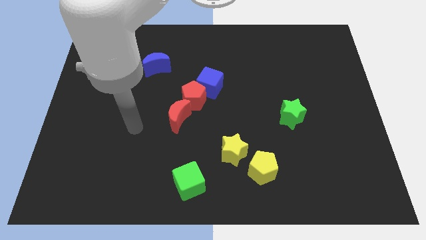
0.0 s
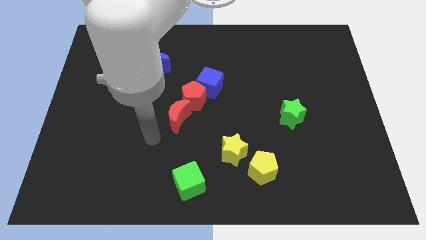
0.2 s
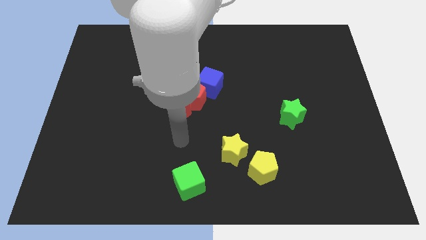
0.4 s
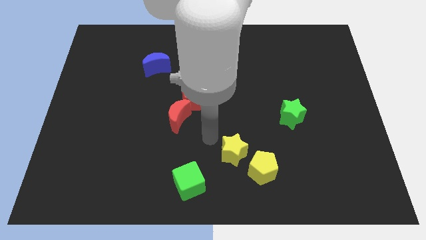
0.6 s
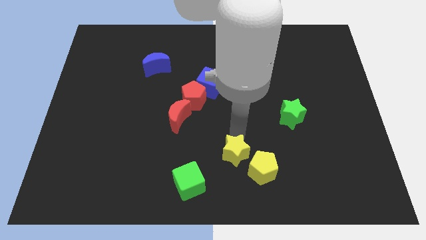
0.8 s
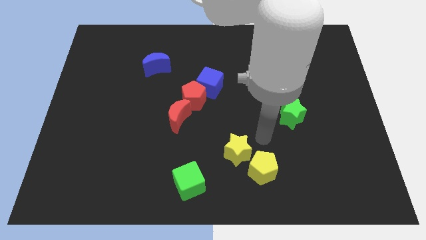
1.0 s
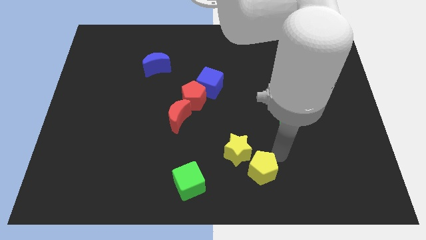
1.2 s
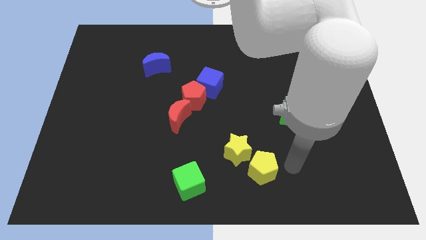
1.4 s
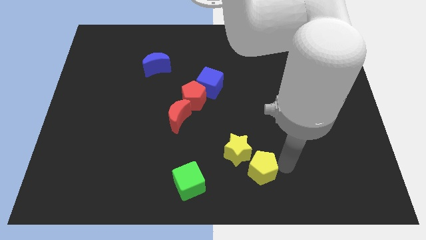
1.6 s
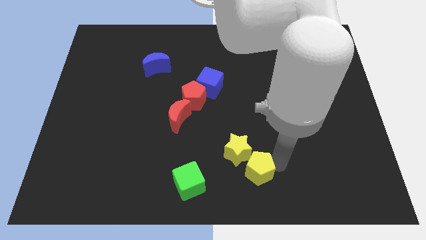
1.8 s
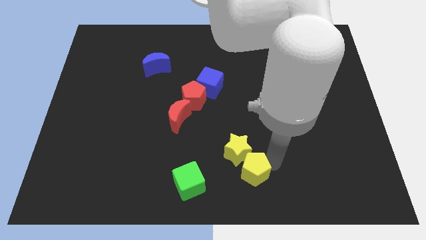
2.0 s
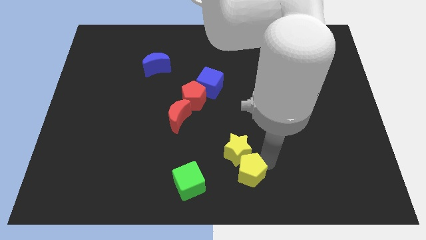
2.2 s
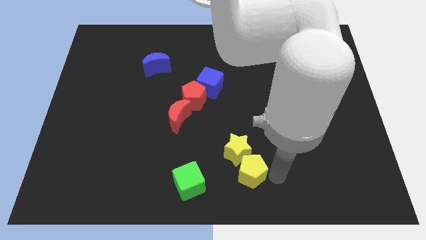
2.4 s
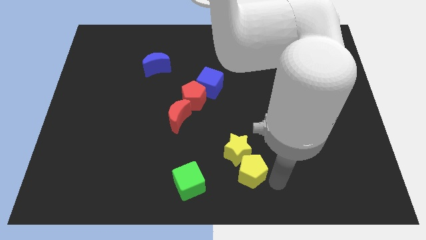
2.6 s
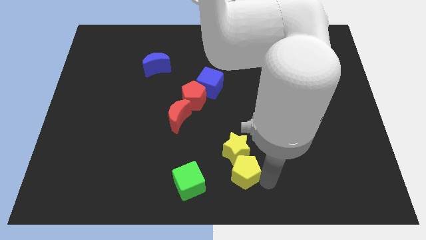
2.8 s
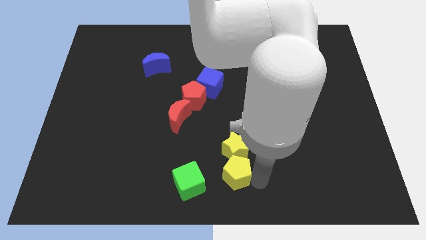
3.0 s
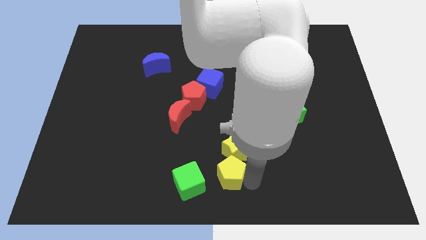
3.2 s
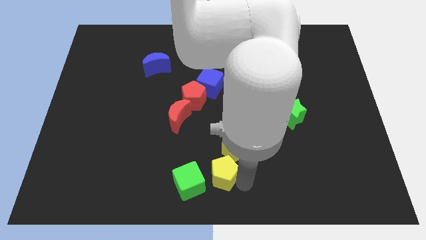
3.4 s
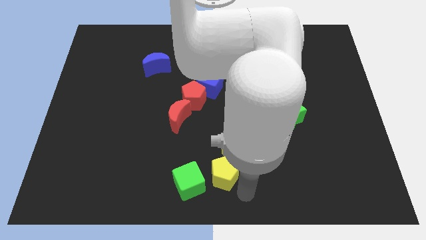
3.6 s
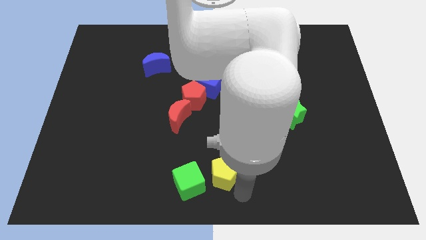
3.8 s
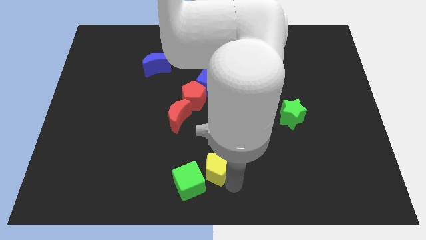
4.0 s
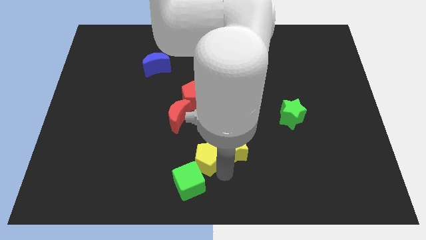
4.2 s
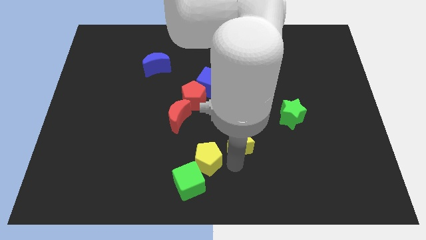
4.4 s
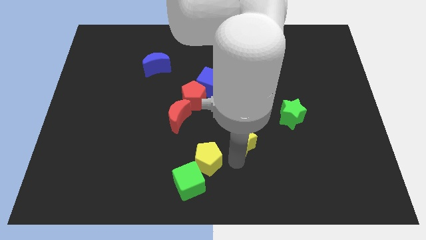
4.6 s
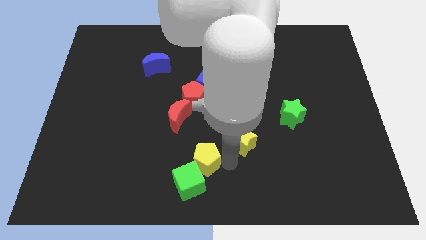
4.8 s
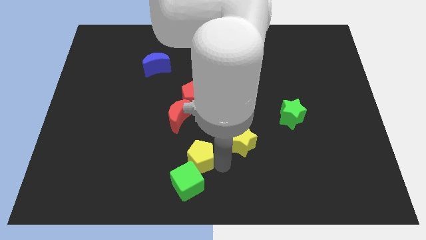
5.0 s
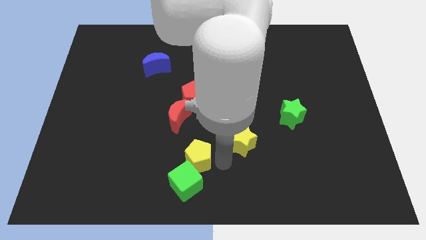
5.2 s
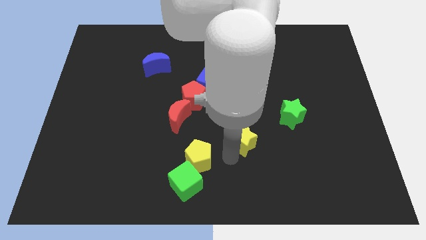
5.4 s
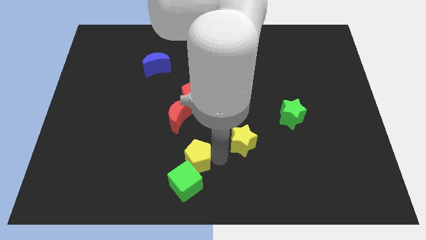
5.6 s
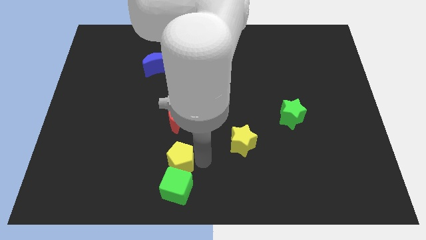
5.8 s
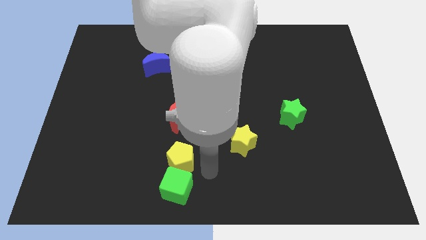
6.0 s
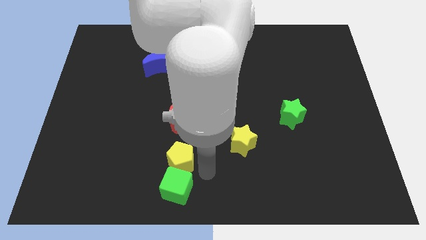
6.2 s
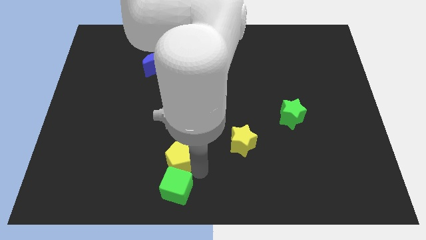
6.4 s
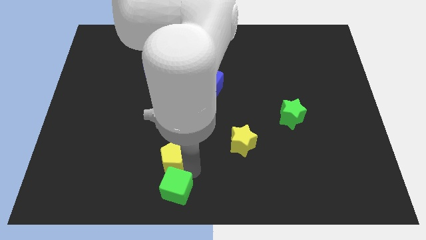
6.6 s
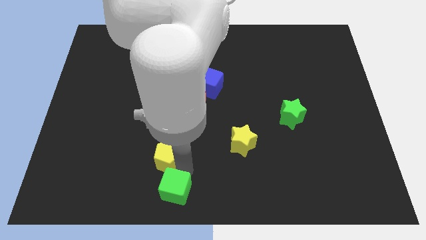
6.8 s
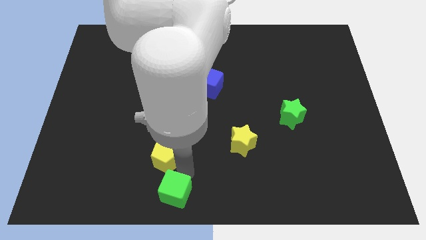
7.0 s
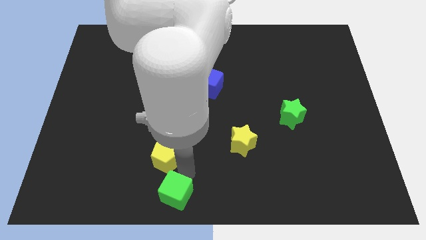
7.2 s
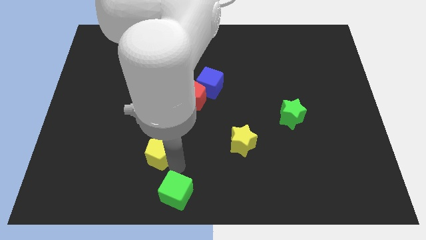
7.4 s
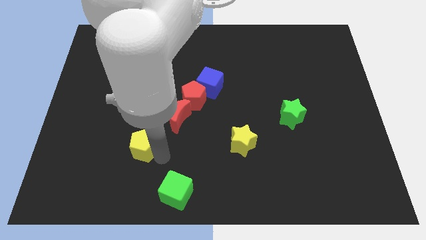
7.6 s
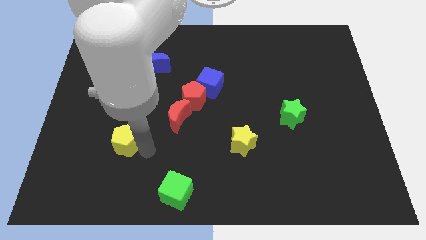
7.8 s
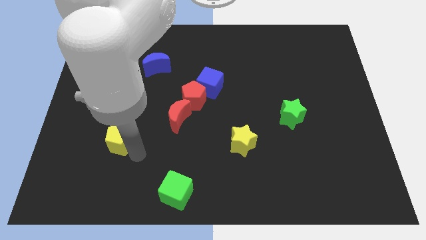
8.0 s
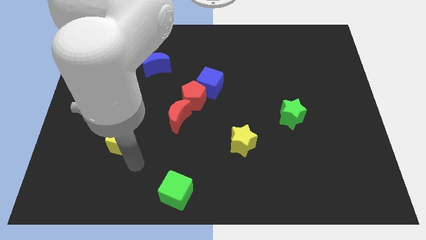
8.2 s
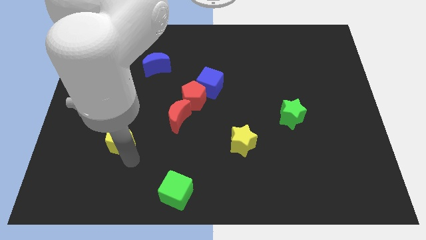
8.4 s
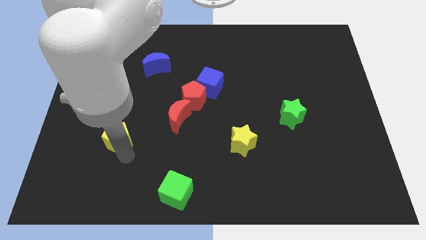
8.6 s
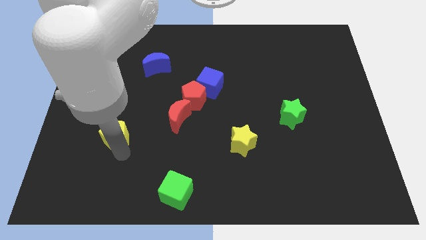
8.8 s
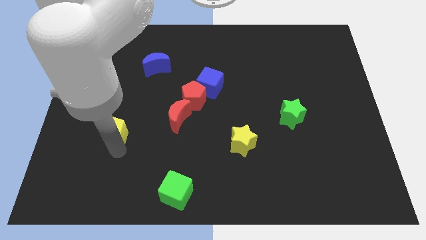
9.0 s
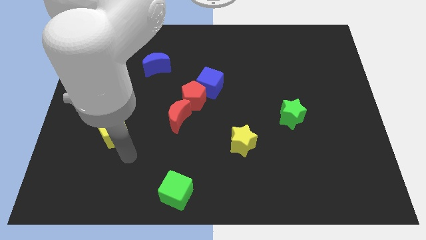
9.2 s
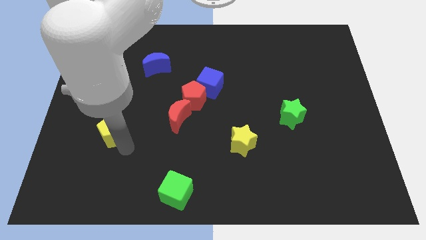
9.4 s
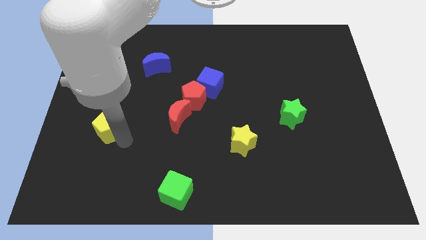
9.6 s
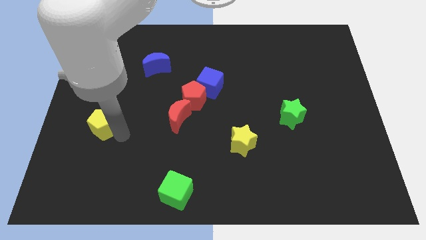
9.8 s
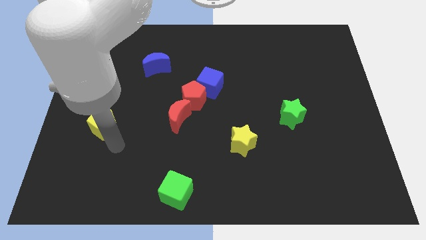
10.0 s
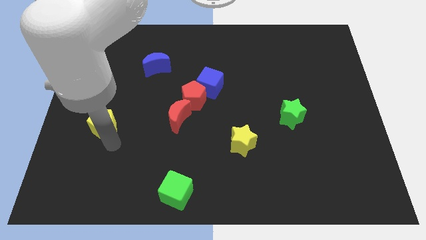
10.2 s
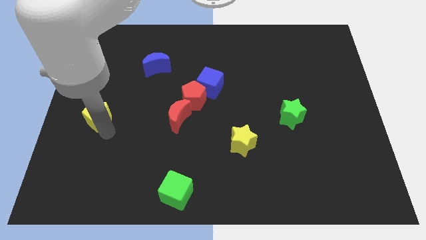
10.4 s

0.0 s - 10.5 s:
move the yellow pentagon to the left side of the board
